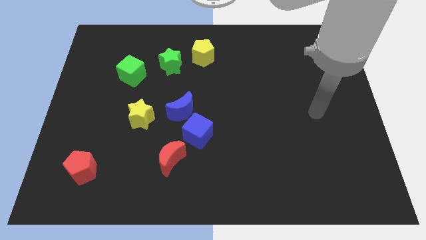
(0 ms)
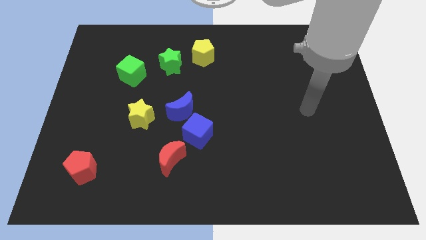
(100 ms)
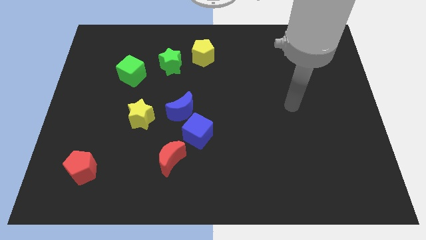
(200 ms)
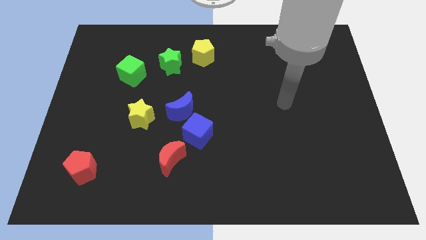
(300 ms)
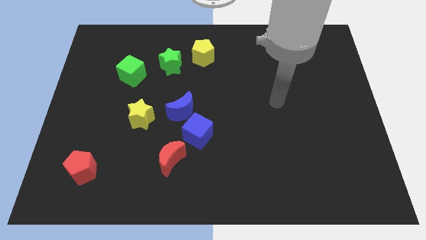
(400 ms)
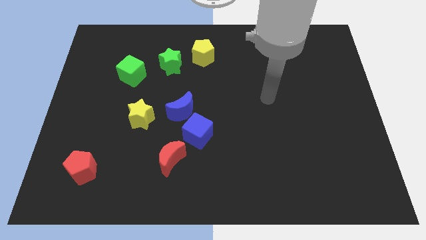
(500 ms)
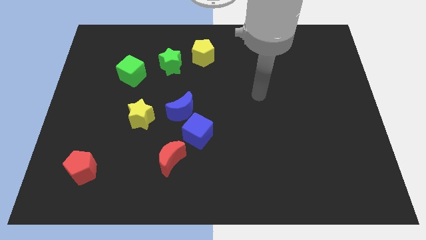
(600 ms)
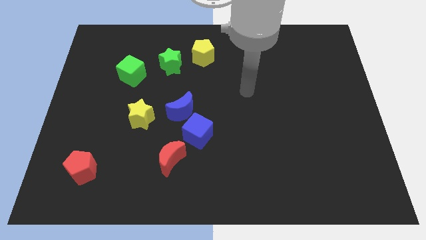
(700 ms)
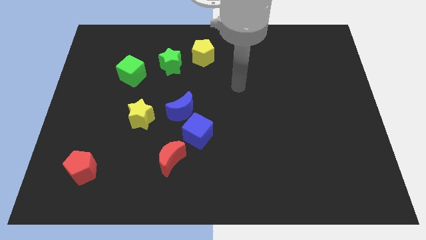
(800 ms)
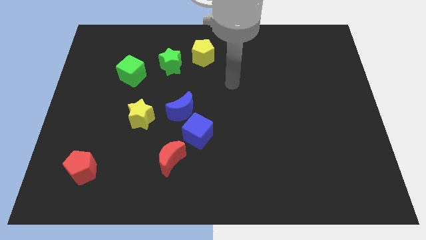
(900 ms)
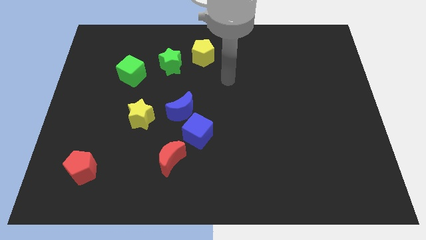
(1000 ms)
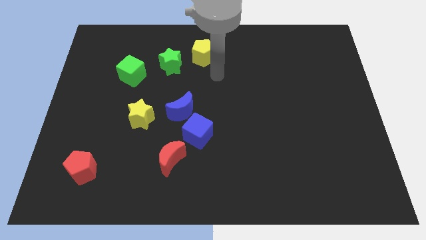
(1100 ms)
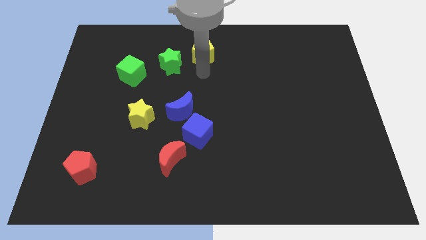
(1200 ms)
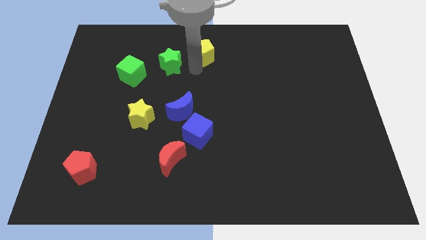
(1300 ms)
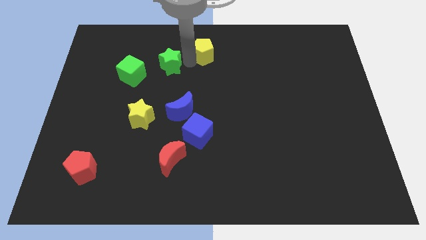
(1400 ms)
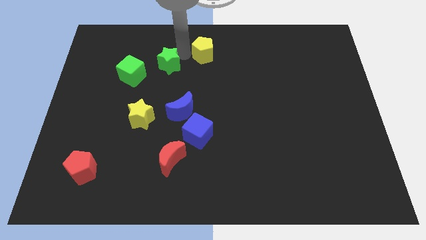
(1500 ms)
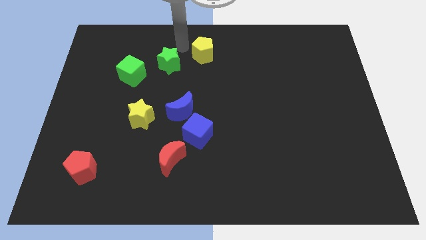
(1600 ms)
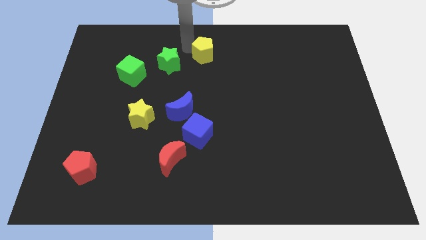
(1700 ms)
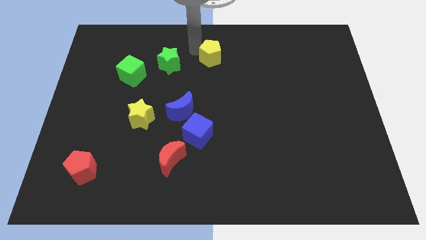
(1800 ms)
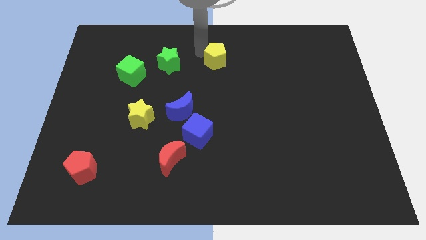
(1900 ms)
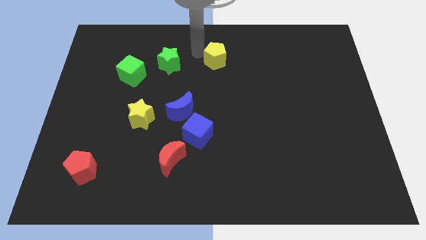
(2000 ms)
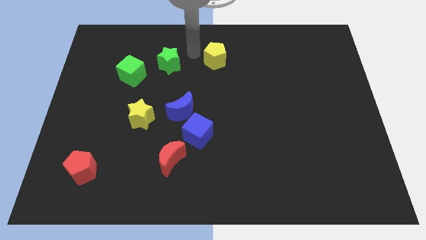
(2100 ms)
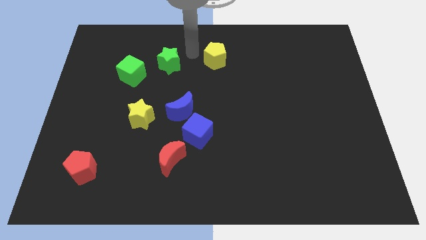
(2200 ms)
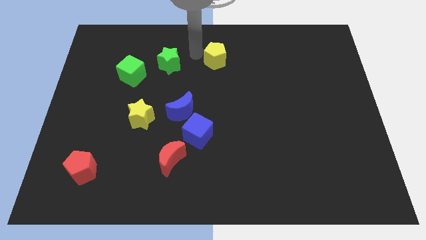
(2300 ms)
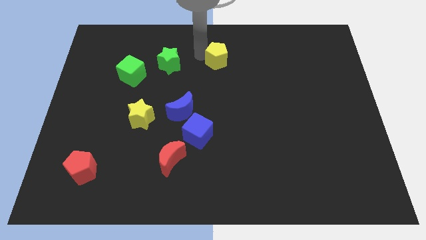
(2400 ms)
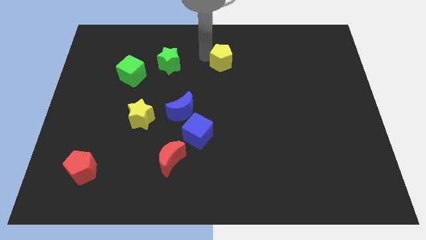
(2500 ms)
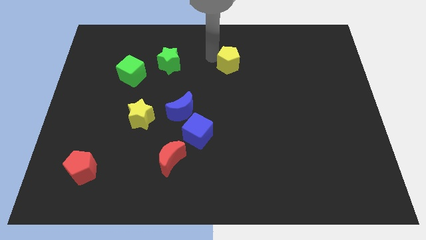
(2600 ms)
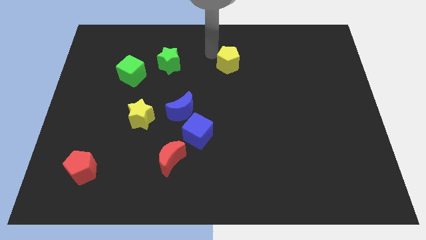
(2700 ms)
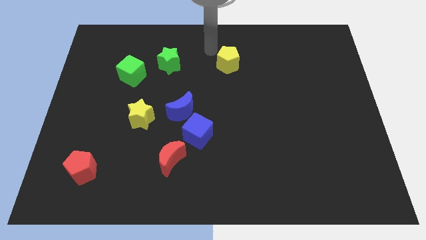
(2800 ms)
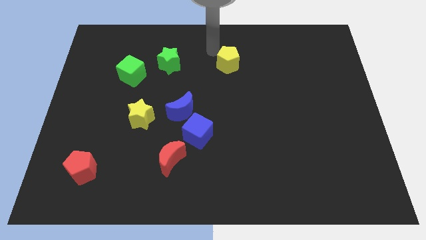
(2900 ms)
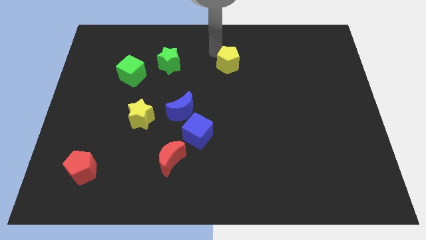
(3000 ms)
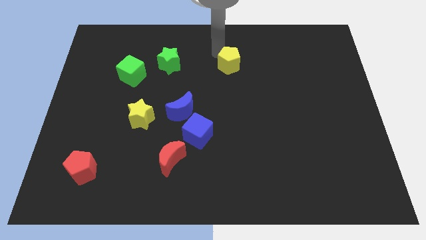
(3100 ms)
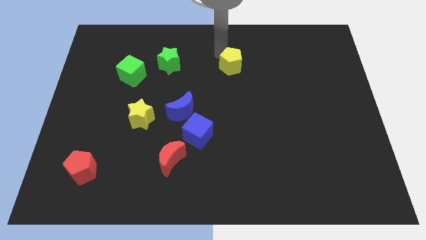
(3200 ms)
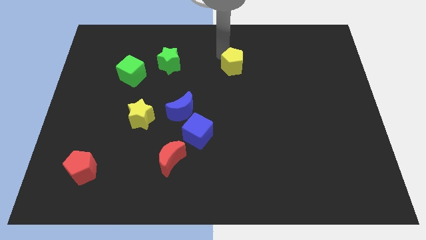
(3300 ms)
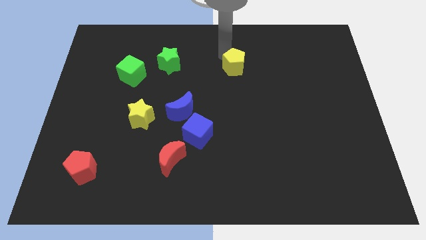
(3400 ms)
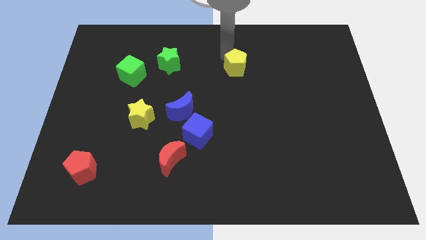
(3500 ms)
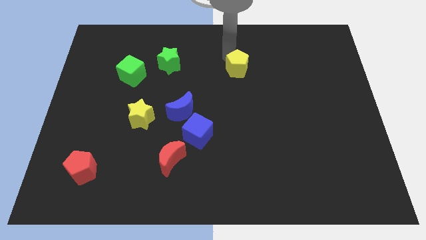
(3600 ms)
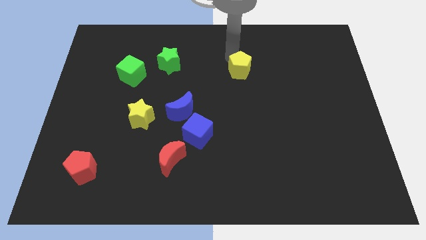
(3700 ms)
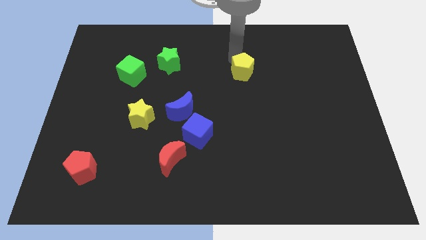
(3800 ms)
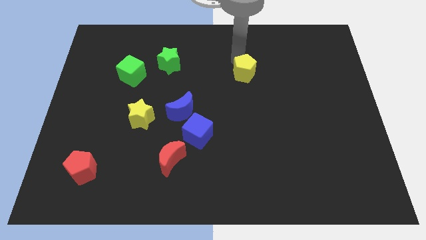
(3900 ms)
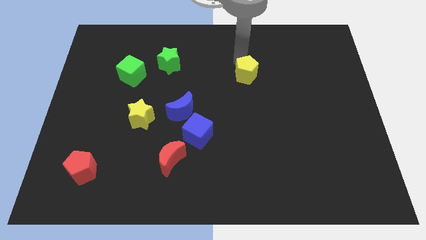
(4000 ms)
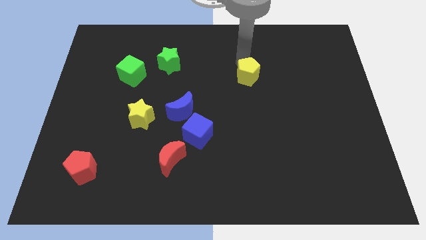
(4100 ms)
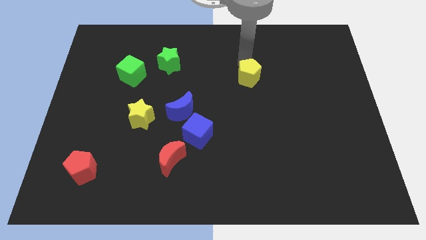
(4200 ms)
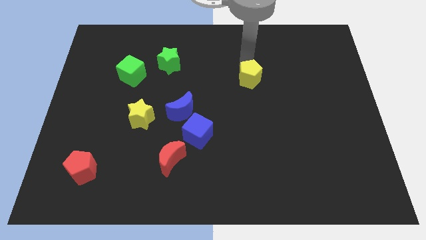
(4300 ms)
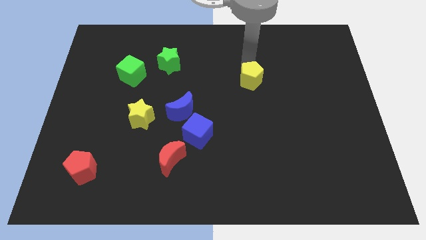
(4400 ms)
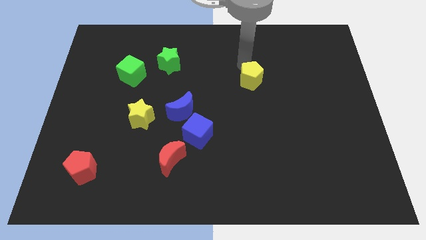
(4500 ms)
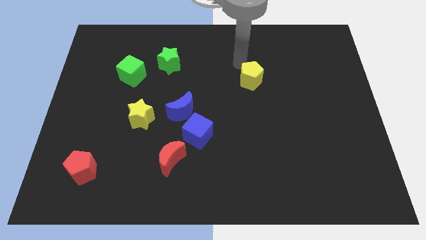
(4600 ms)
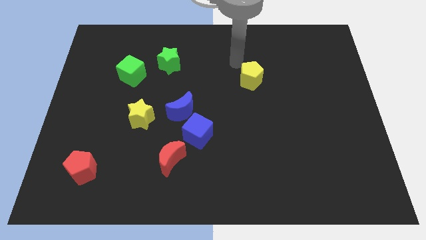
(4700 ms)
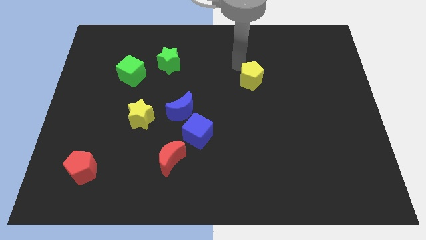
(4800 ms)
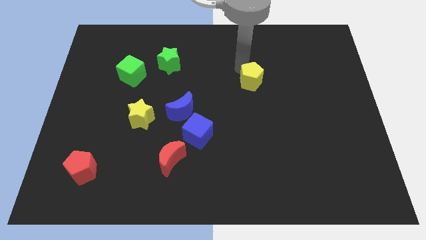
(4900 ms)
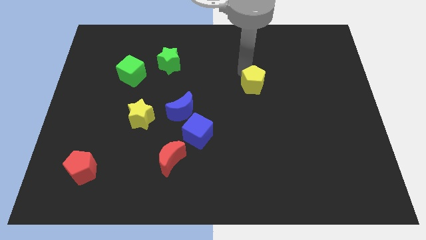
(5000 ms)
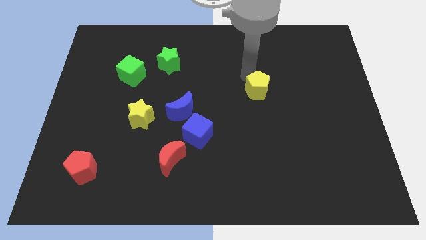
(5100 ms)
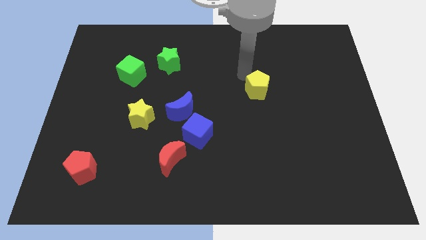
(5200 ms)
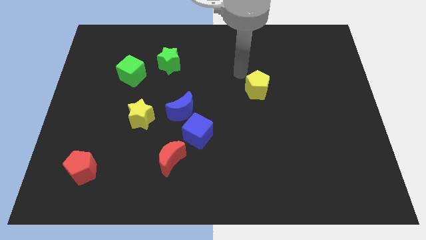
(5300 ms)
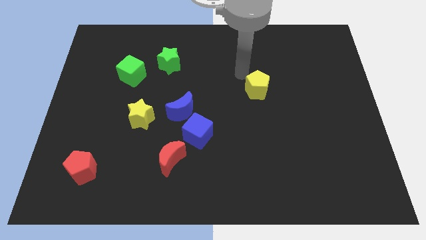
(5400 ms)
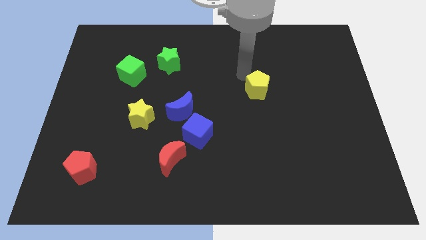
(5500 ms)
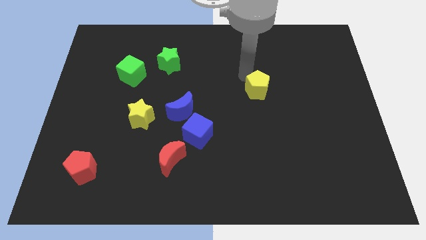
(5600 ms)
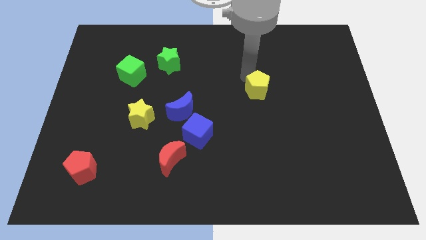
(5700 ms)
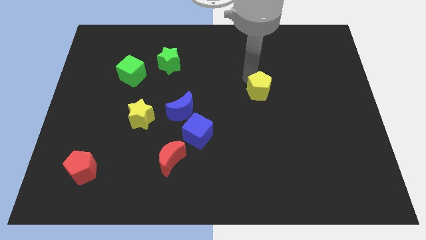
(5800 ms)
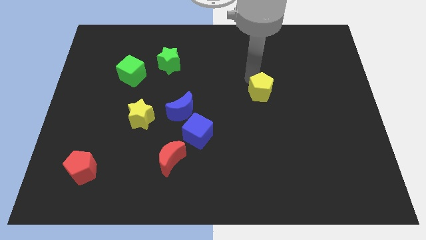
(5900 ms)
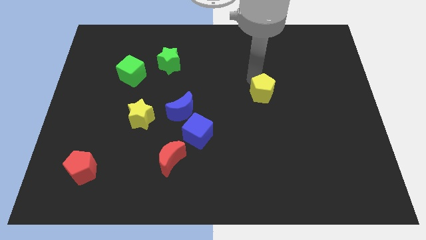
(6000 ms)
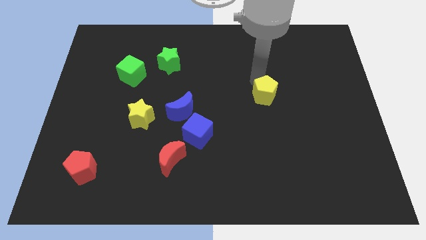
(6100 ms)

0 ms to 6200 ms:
slide the yellow pentagon down and right

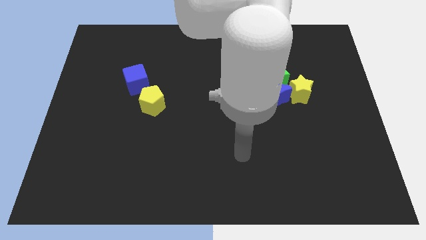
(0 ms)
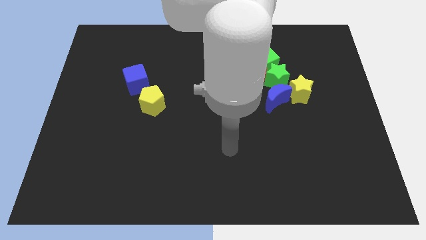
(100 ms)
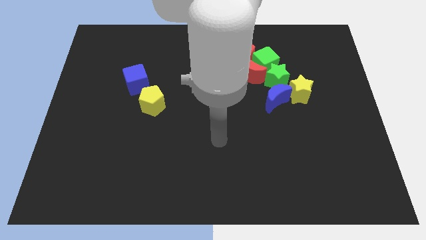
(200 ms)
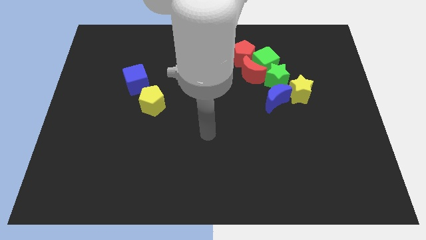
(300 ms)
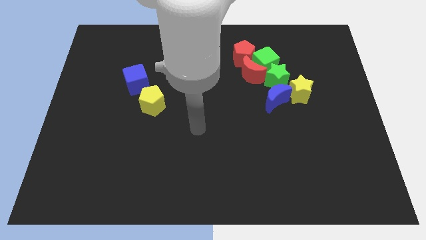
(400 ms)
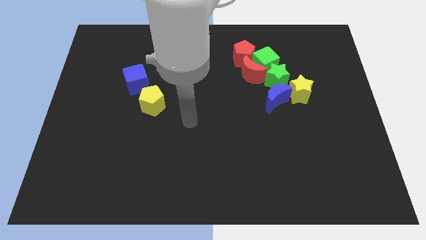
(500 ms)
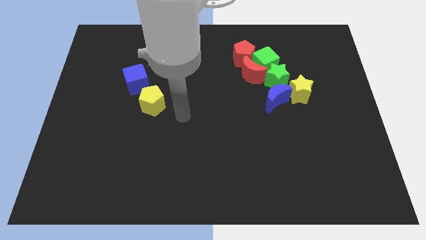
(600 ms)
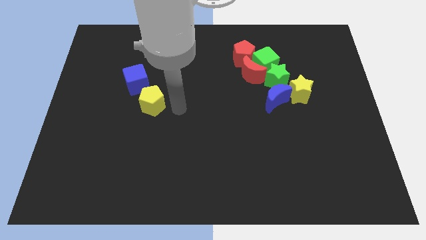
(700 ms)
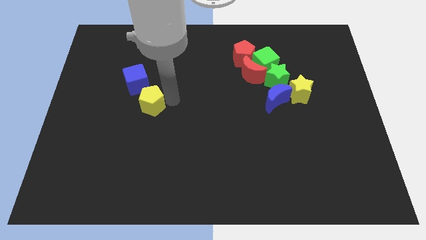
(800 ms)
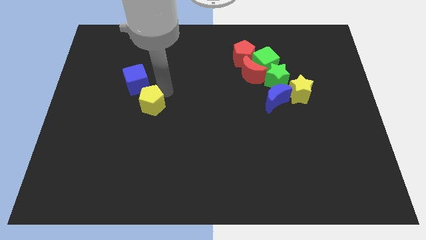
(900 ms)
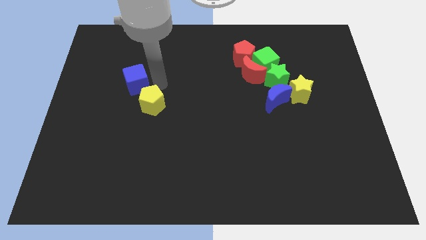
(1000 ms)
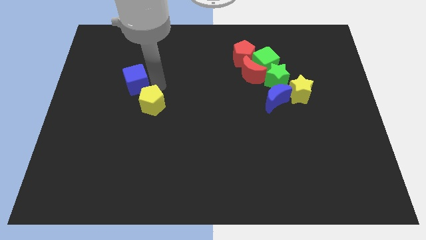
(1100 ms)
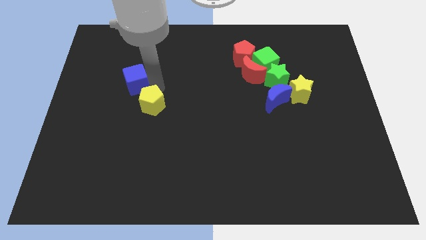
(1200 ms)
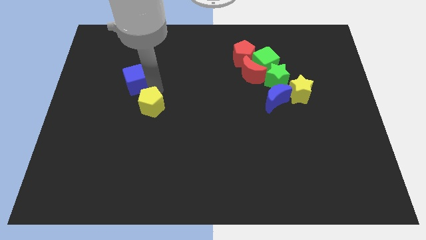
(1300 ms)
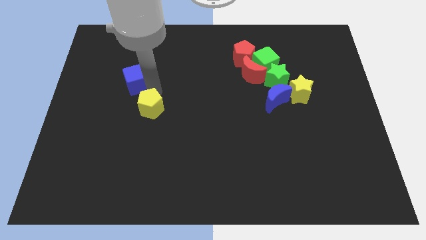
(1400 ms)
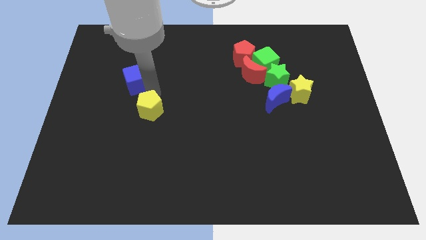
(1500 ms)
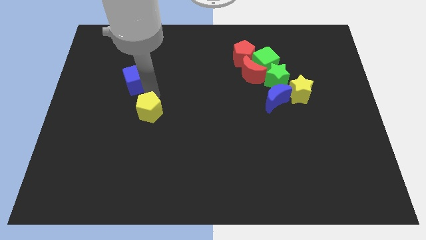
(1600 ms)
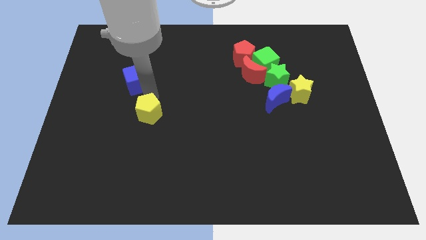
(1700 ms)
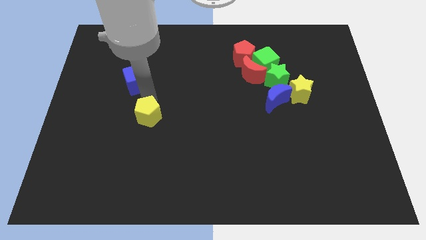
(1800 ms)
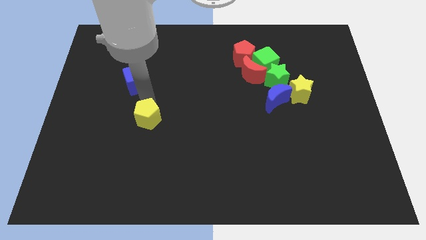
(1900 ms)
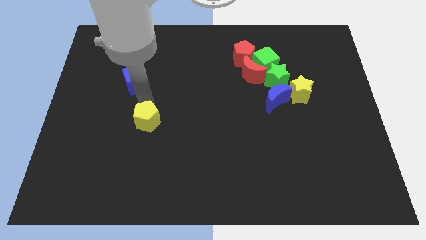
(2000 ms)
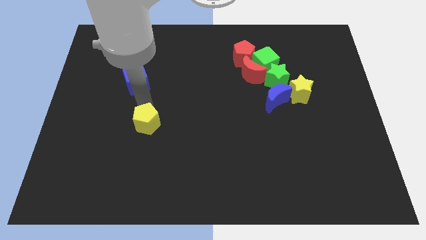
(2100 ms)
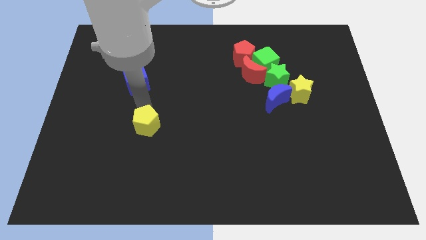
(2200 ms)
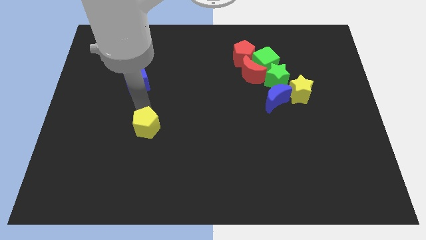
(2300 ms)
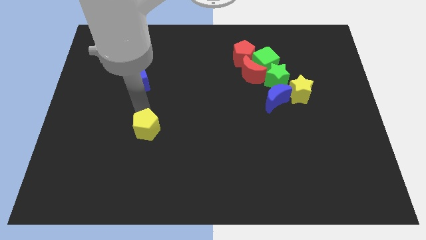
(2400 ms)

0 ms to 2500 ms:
push the yellow pentagon down somewhat
